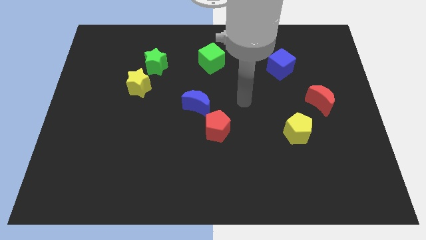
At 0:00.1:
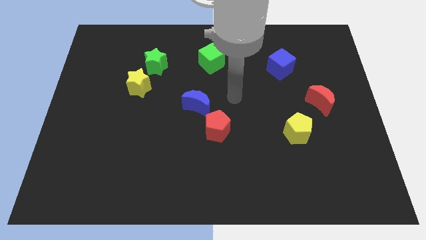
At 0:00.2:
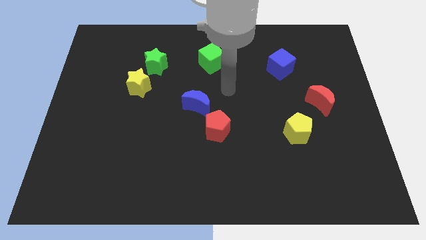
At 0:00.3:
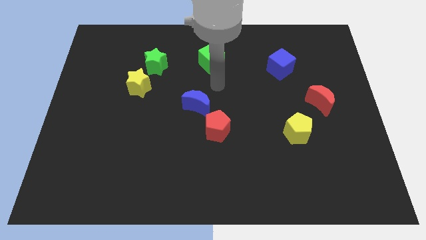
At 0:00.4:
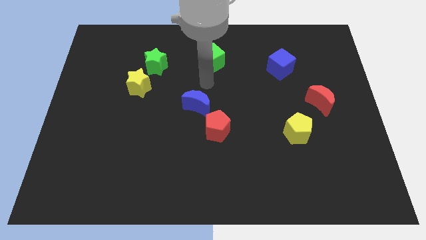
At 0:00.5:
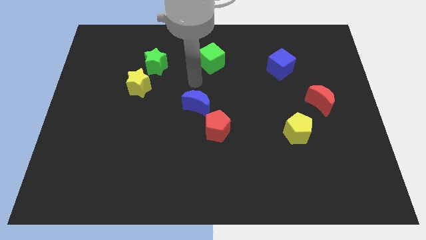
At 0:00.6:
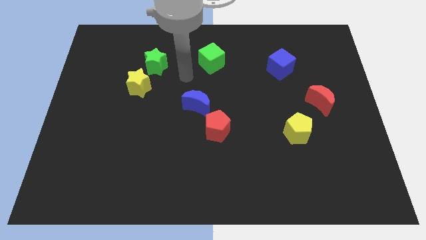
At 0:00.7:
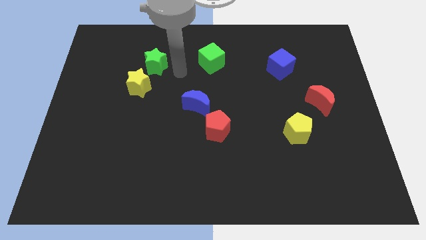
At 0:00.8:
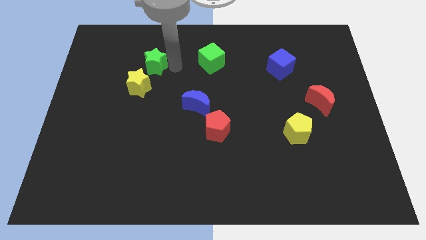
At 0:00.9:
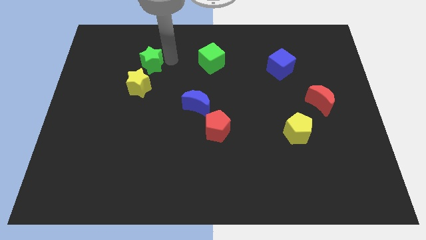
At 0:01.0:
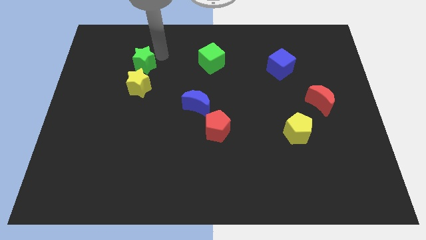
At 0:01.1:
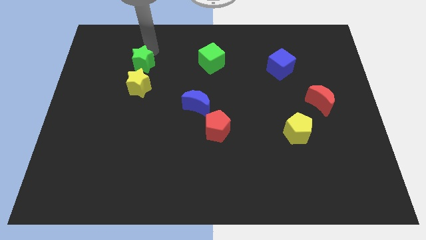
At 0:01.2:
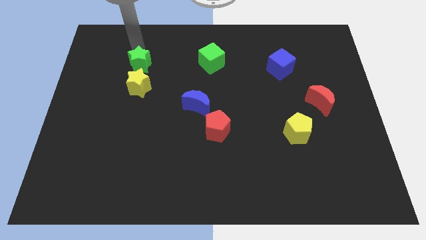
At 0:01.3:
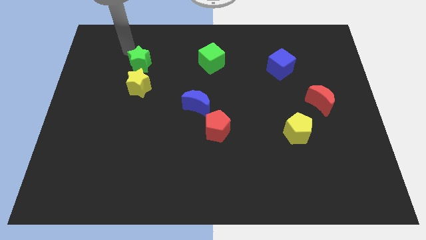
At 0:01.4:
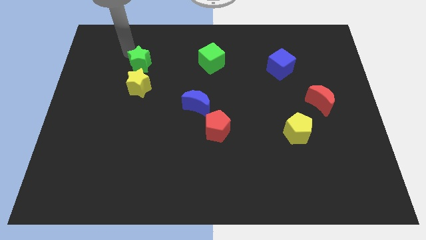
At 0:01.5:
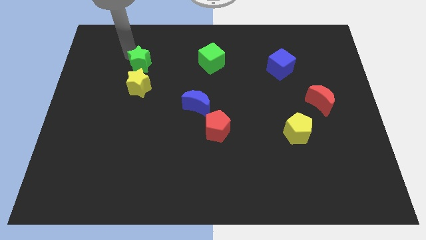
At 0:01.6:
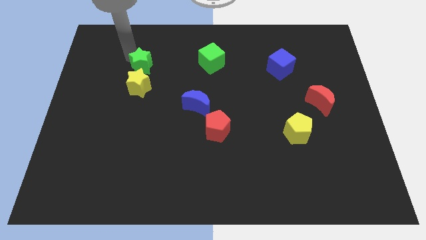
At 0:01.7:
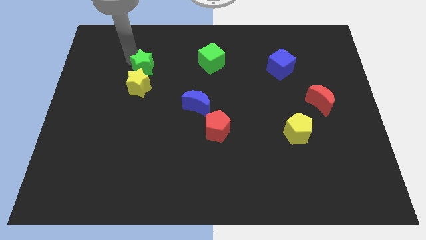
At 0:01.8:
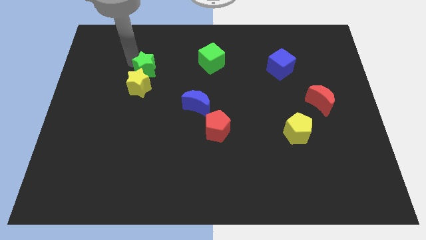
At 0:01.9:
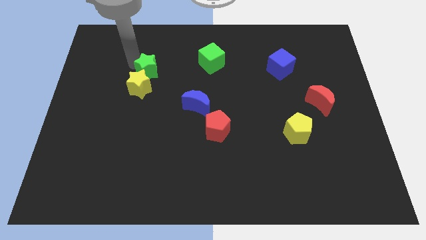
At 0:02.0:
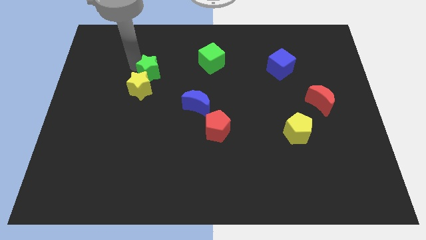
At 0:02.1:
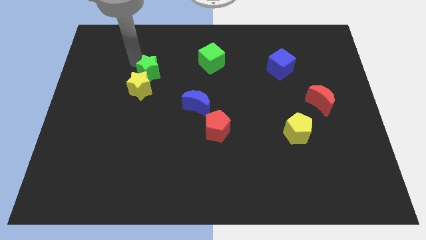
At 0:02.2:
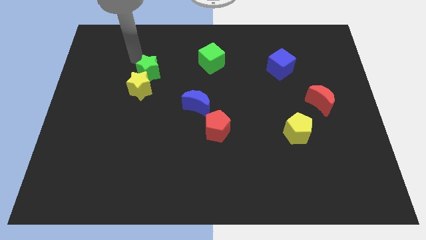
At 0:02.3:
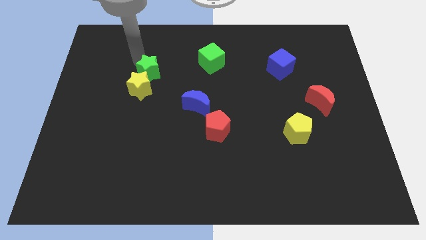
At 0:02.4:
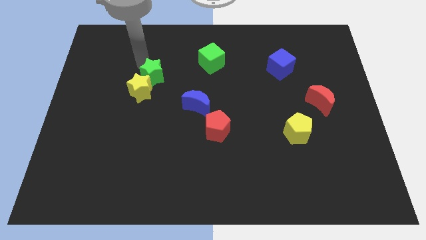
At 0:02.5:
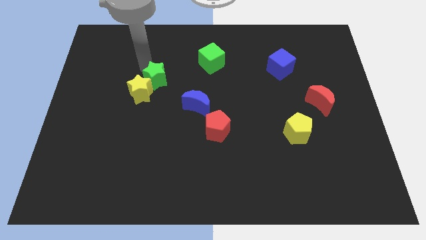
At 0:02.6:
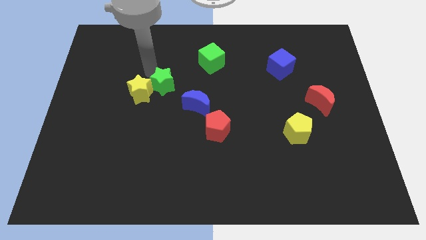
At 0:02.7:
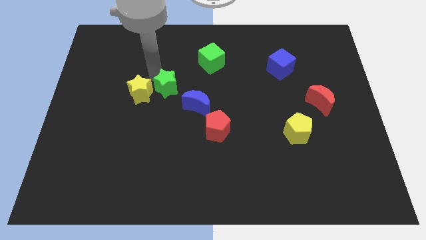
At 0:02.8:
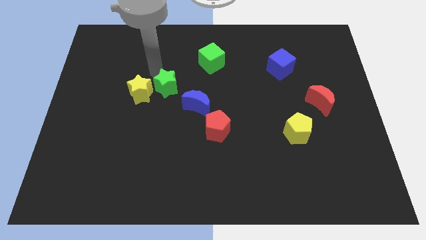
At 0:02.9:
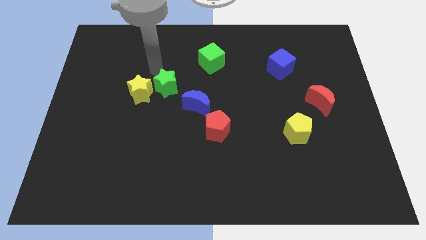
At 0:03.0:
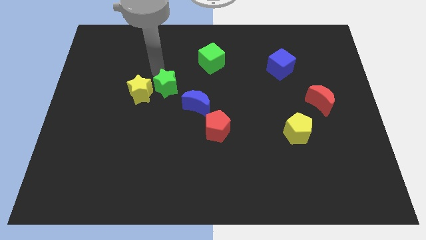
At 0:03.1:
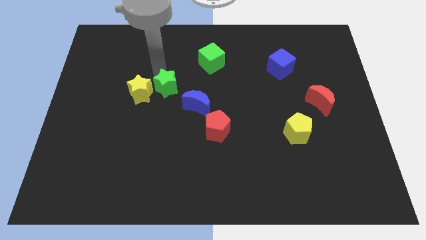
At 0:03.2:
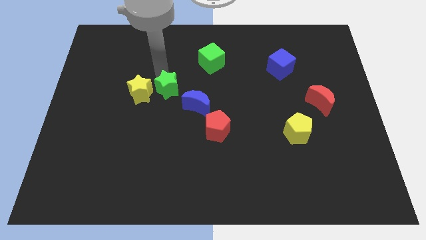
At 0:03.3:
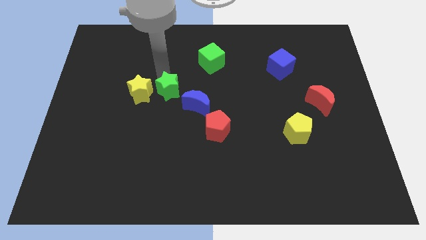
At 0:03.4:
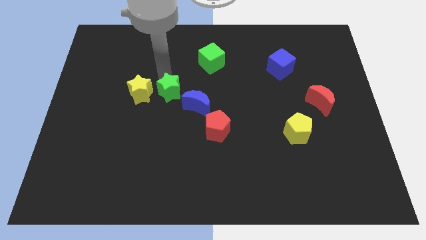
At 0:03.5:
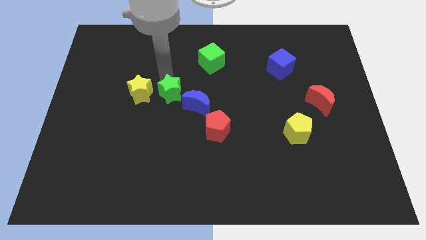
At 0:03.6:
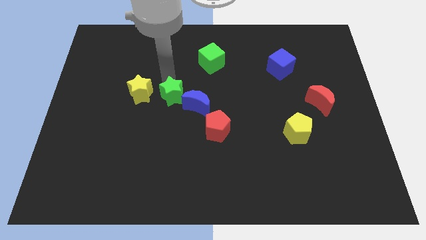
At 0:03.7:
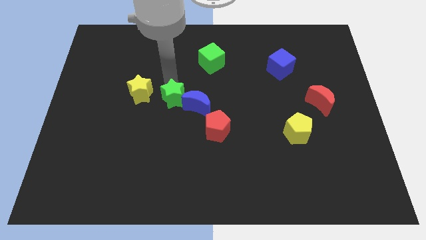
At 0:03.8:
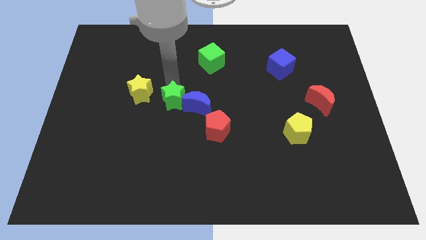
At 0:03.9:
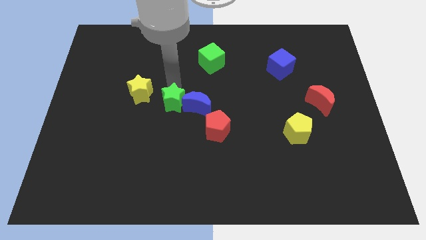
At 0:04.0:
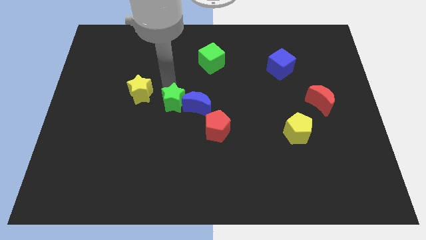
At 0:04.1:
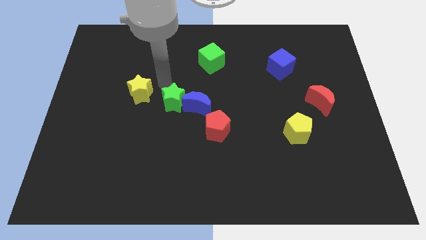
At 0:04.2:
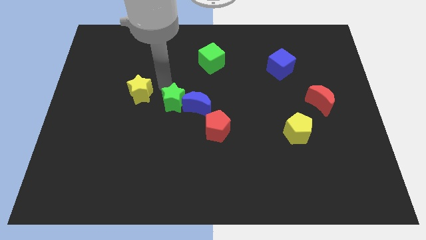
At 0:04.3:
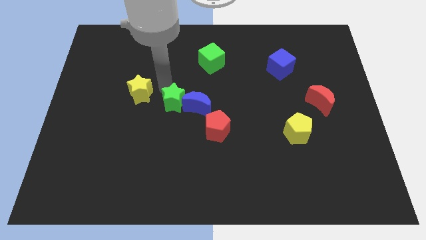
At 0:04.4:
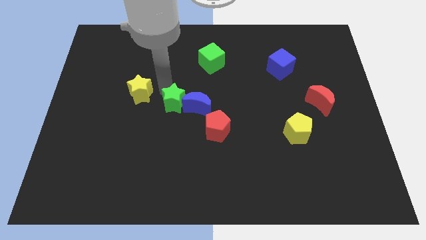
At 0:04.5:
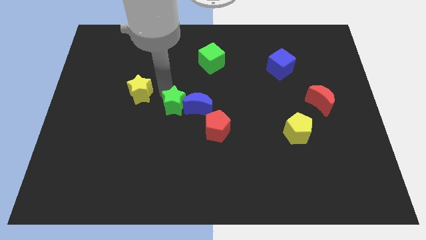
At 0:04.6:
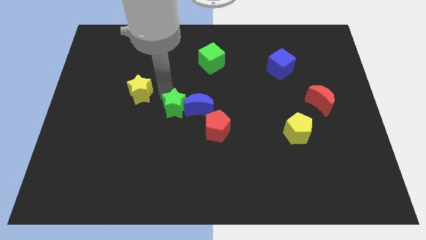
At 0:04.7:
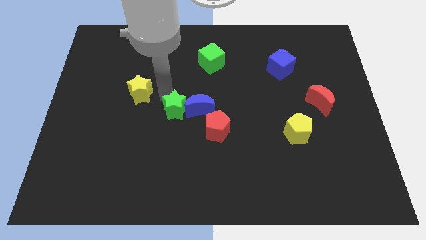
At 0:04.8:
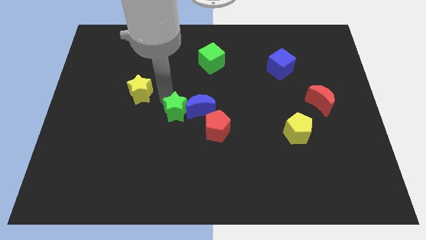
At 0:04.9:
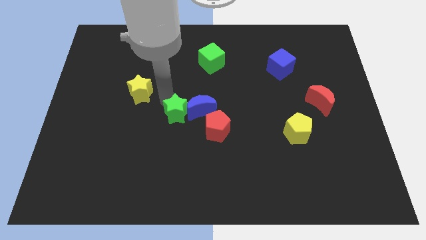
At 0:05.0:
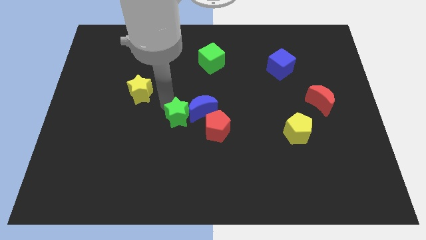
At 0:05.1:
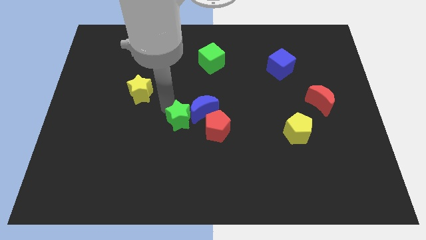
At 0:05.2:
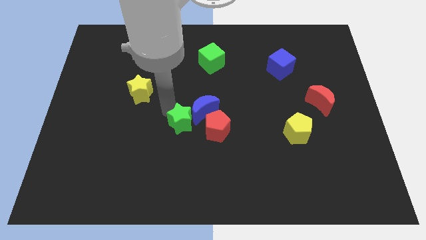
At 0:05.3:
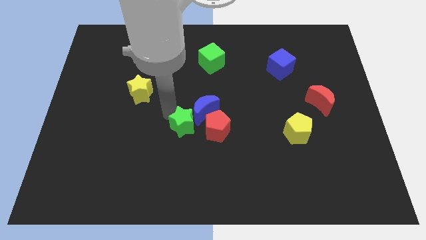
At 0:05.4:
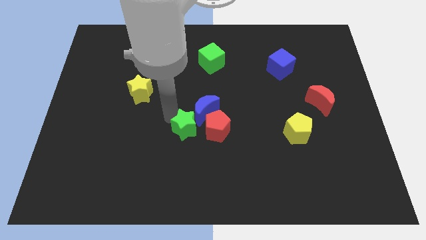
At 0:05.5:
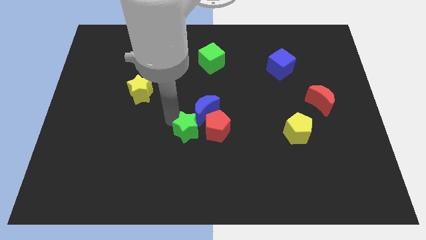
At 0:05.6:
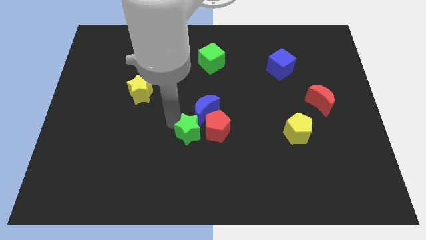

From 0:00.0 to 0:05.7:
move the green star close to the red pentagon

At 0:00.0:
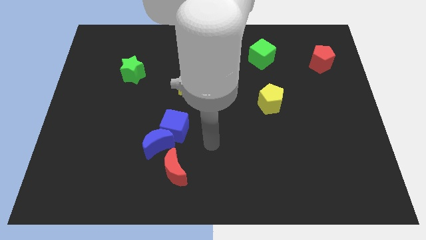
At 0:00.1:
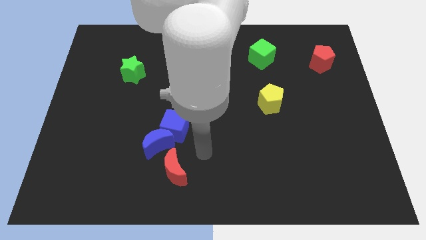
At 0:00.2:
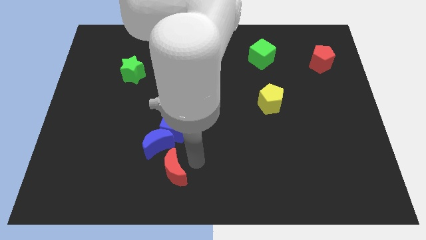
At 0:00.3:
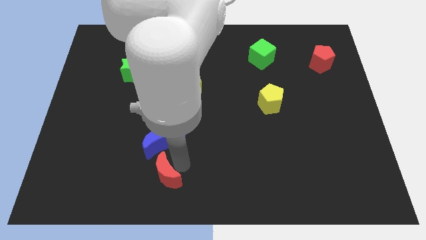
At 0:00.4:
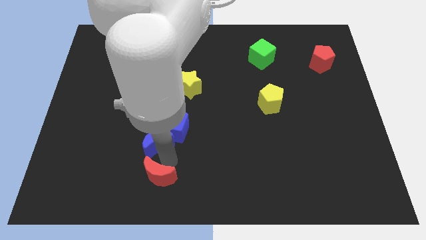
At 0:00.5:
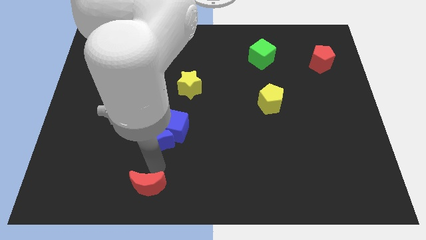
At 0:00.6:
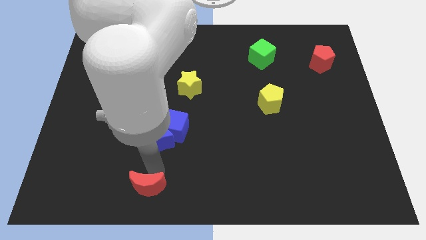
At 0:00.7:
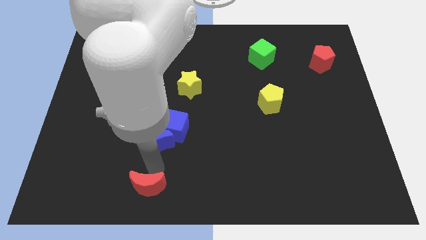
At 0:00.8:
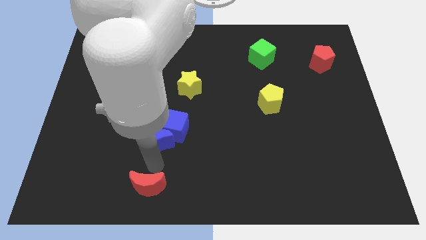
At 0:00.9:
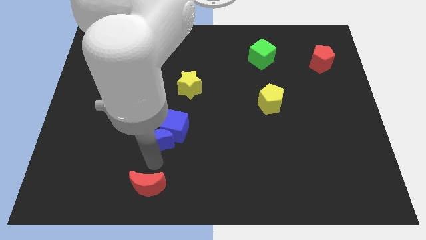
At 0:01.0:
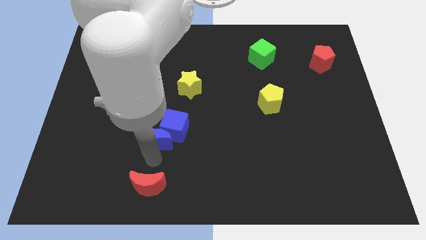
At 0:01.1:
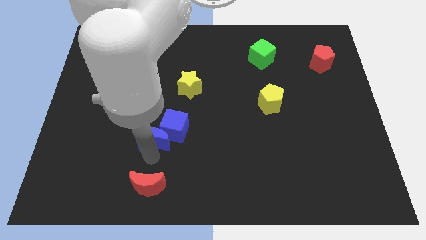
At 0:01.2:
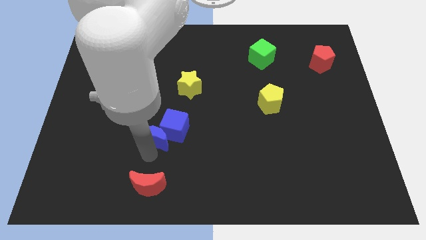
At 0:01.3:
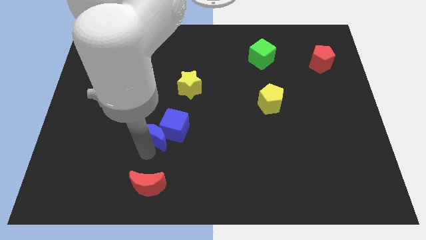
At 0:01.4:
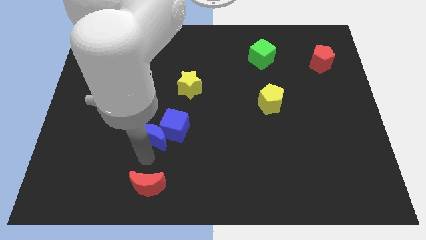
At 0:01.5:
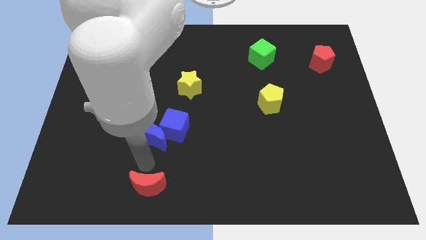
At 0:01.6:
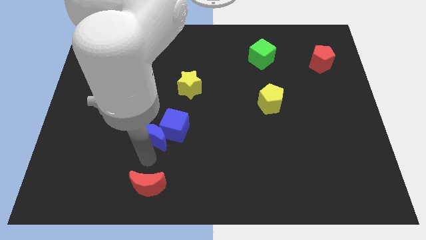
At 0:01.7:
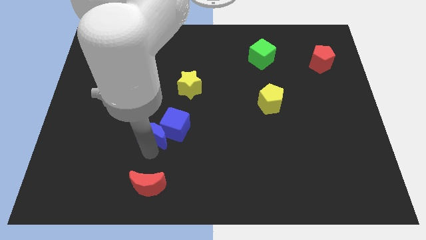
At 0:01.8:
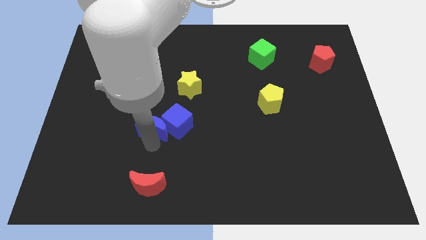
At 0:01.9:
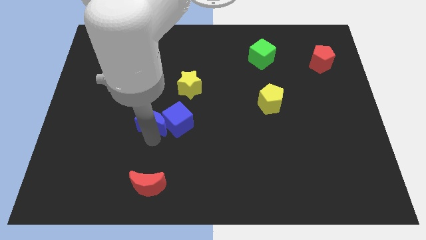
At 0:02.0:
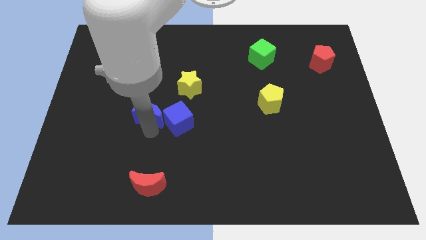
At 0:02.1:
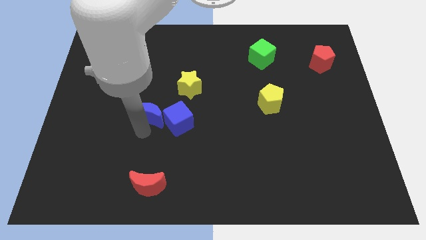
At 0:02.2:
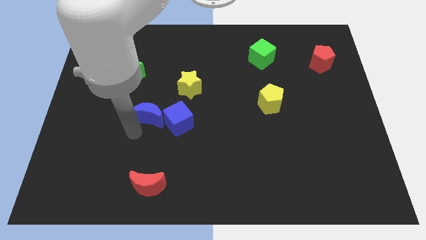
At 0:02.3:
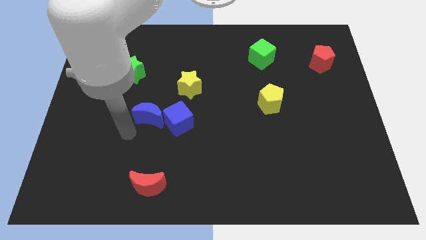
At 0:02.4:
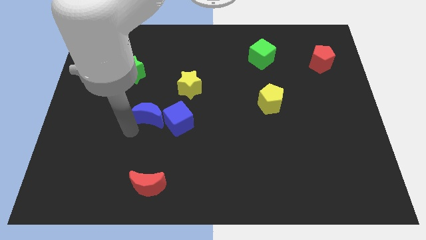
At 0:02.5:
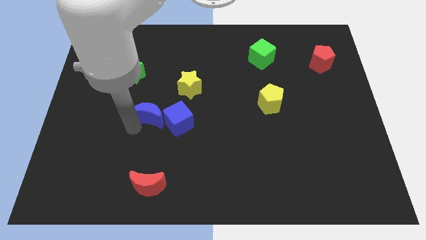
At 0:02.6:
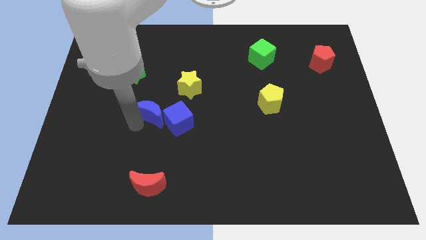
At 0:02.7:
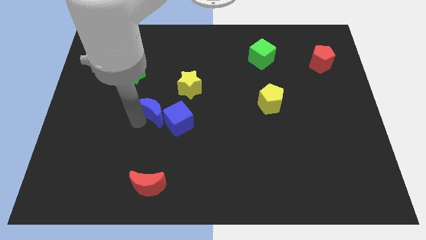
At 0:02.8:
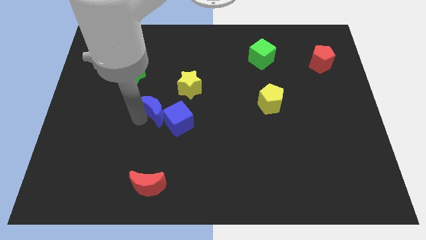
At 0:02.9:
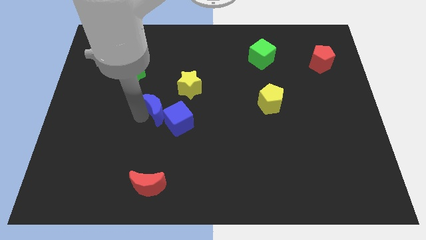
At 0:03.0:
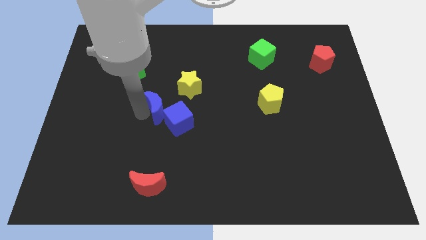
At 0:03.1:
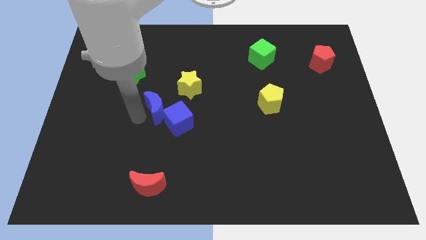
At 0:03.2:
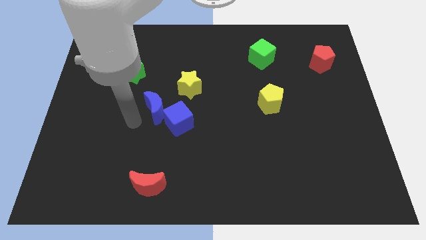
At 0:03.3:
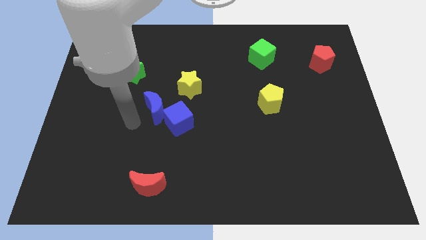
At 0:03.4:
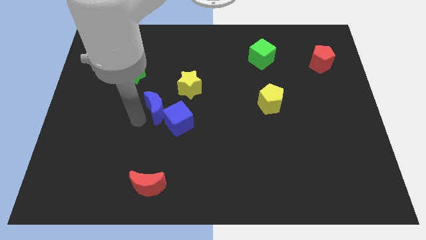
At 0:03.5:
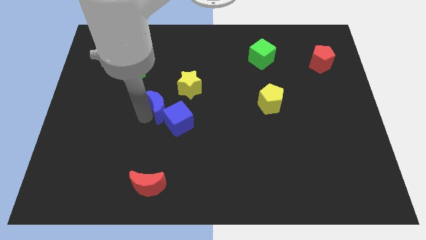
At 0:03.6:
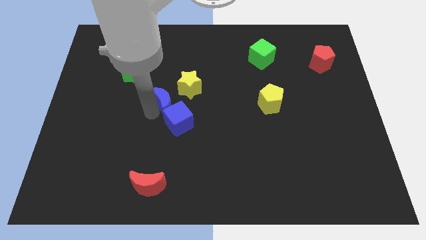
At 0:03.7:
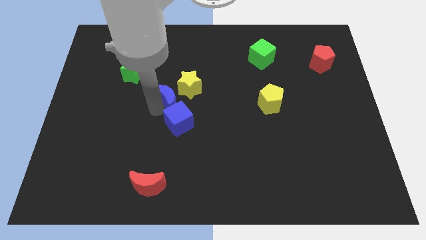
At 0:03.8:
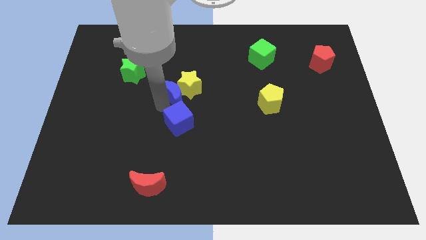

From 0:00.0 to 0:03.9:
move the blue moon to the yellow star
